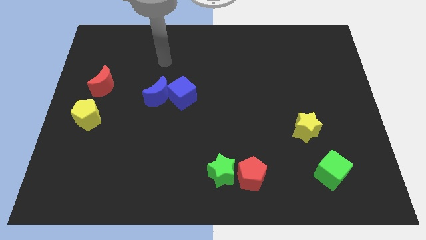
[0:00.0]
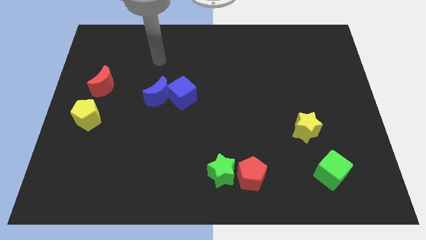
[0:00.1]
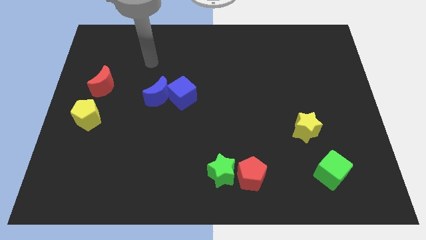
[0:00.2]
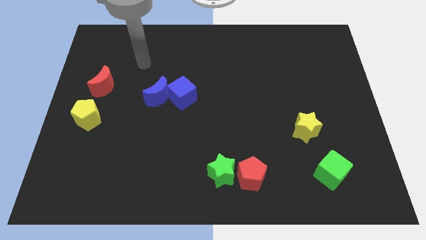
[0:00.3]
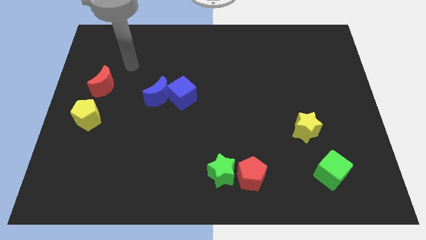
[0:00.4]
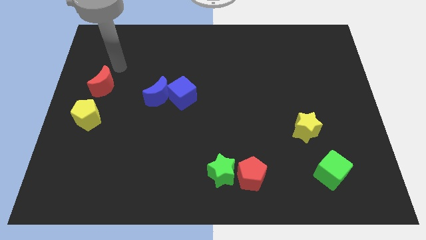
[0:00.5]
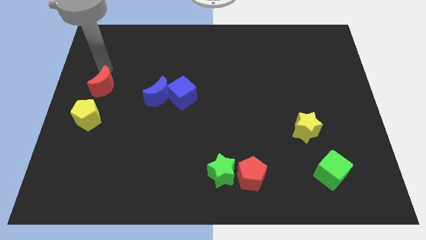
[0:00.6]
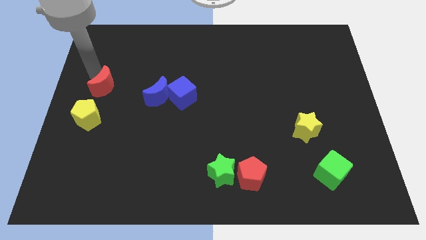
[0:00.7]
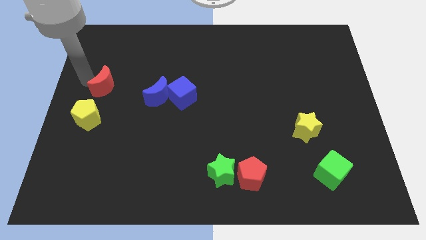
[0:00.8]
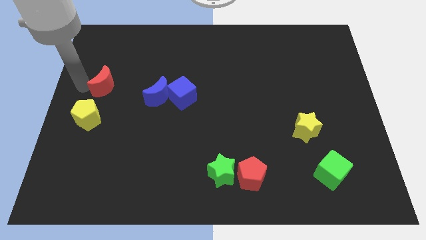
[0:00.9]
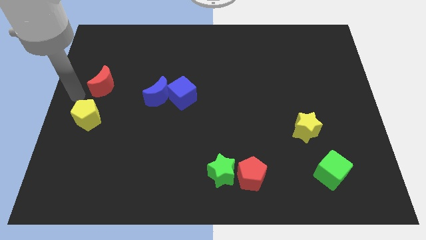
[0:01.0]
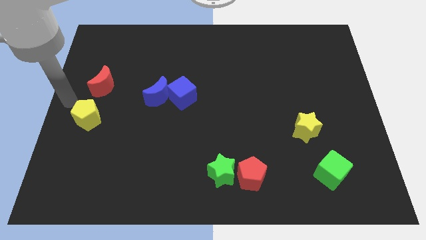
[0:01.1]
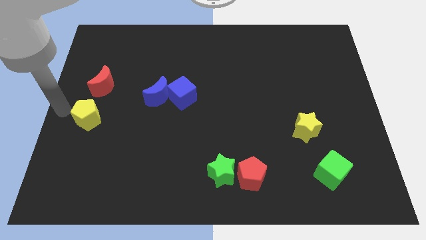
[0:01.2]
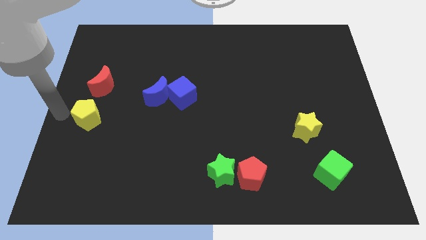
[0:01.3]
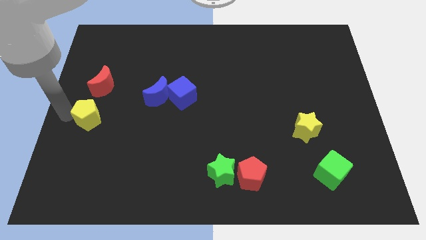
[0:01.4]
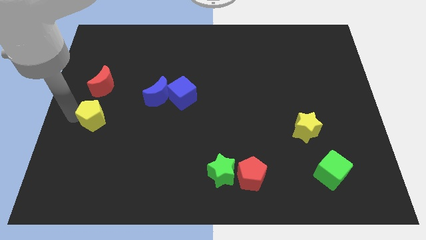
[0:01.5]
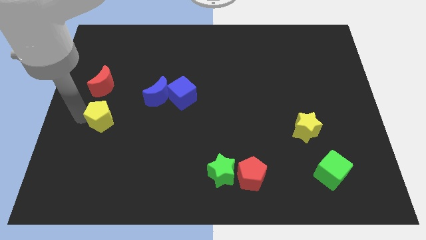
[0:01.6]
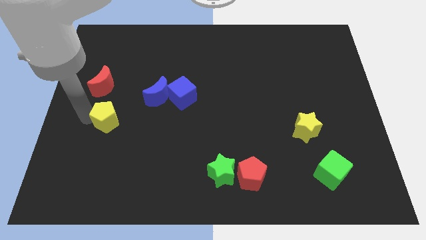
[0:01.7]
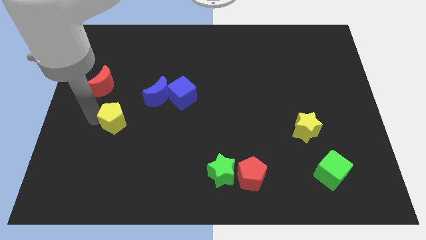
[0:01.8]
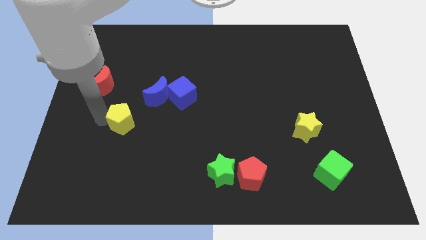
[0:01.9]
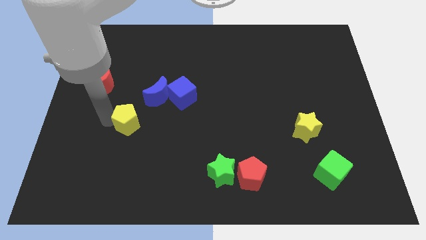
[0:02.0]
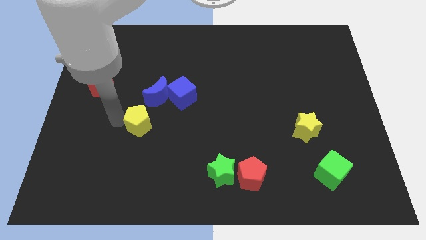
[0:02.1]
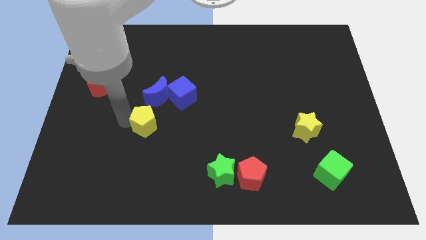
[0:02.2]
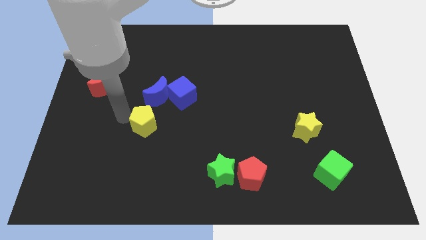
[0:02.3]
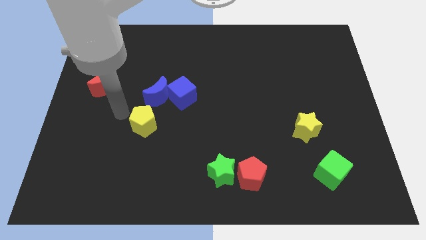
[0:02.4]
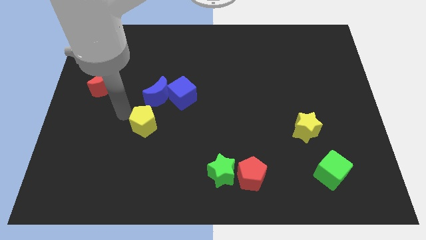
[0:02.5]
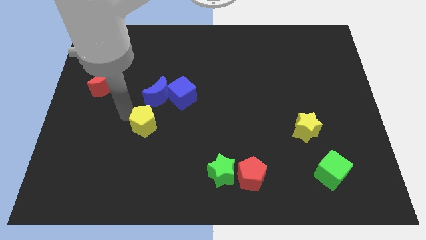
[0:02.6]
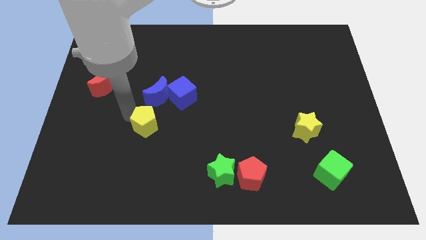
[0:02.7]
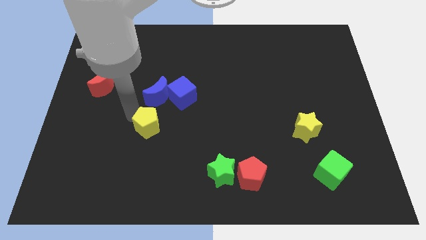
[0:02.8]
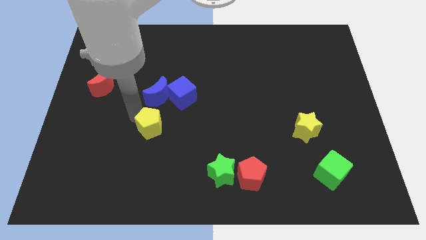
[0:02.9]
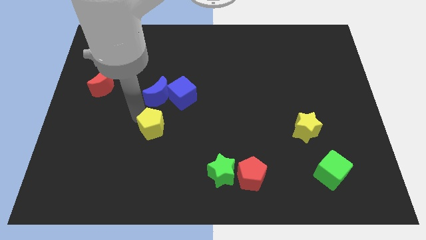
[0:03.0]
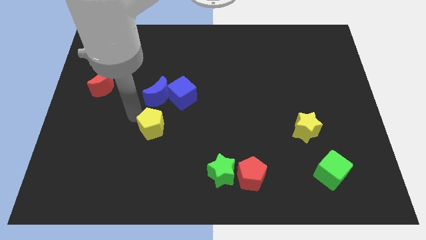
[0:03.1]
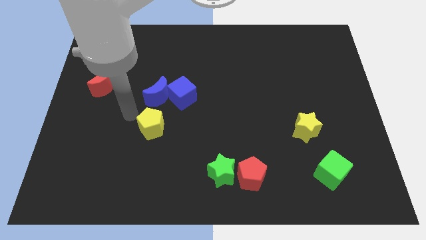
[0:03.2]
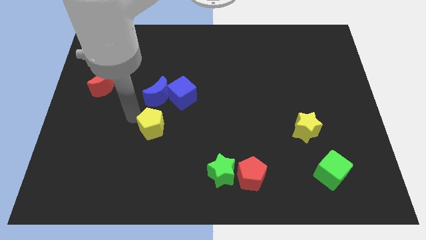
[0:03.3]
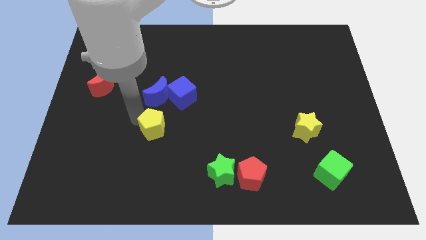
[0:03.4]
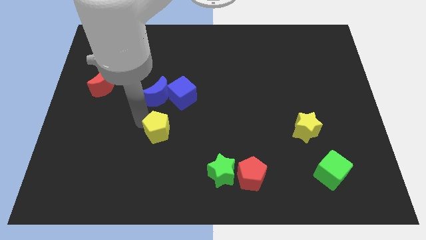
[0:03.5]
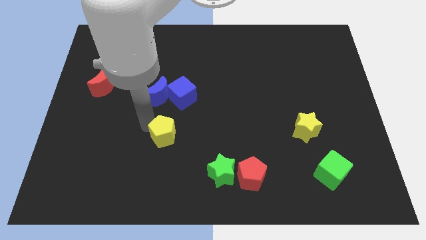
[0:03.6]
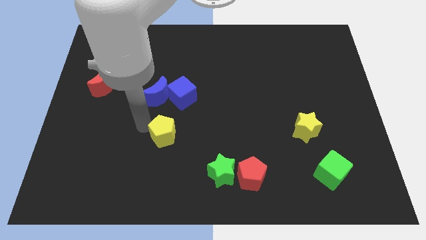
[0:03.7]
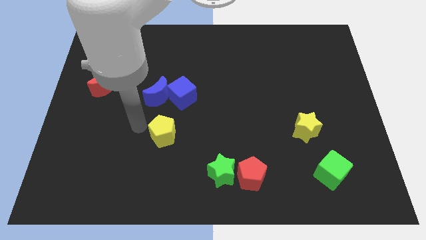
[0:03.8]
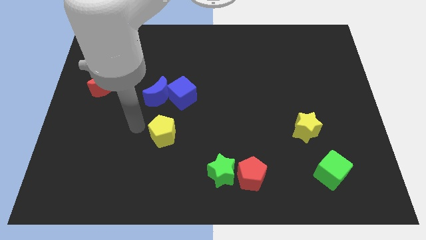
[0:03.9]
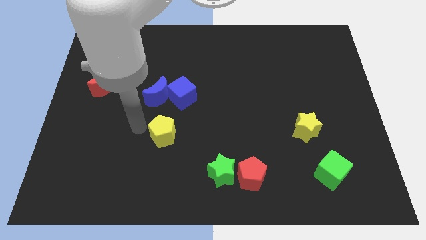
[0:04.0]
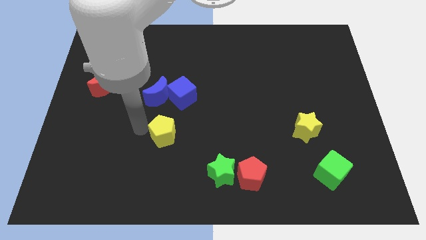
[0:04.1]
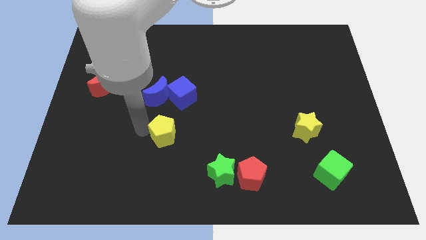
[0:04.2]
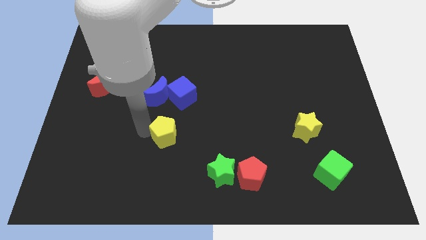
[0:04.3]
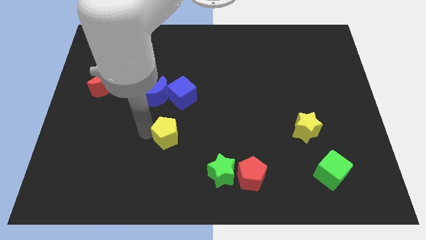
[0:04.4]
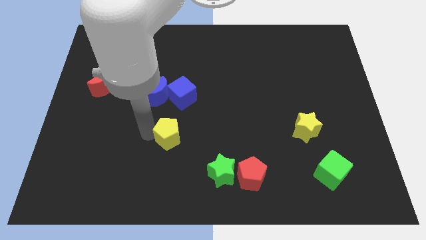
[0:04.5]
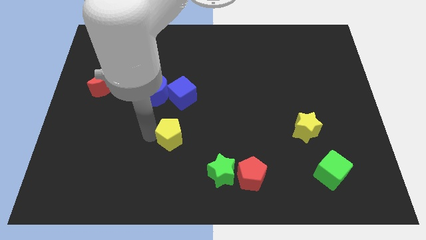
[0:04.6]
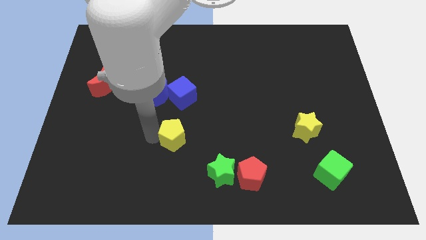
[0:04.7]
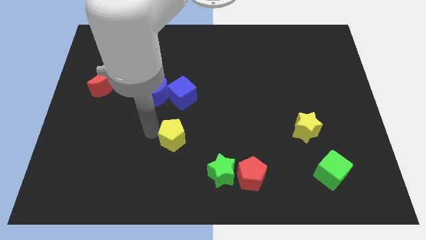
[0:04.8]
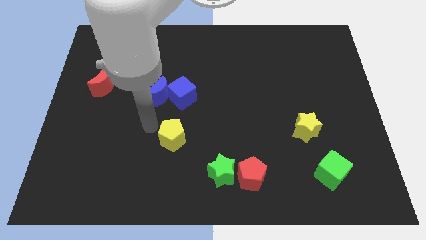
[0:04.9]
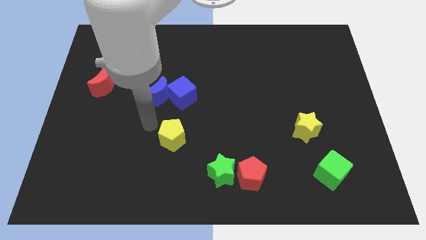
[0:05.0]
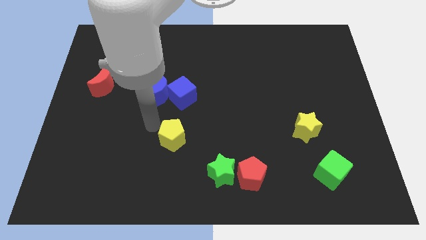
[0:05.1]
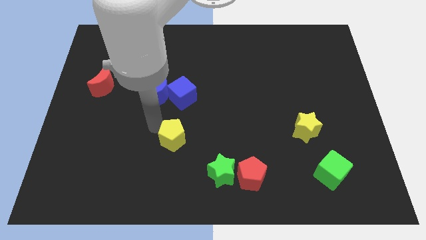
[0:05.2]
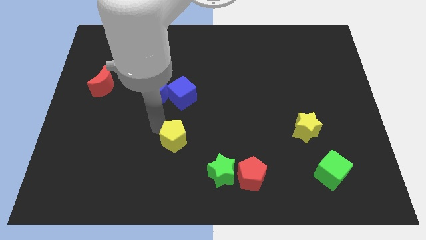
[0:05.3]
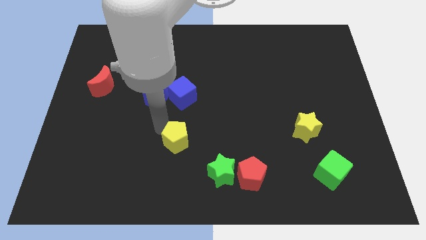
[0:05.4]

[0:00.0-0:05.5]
put the yellow pentagon to the top left side of the green star

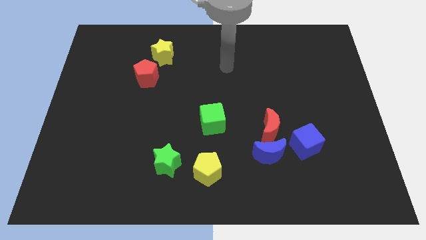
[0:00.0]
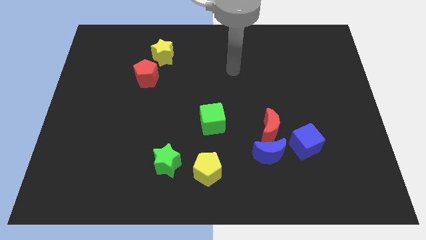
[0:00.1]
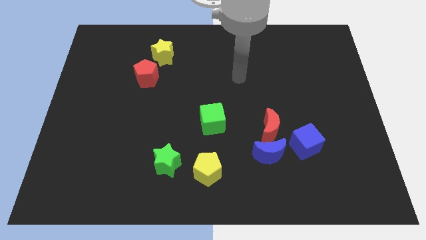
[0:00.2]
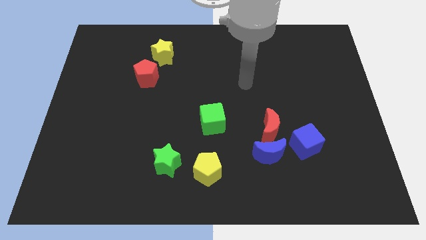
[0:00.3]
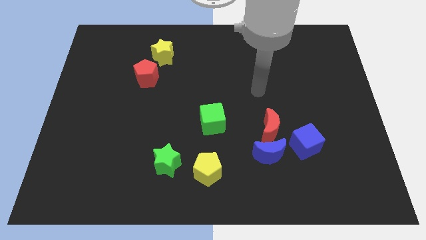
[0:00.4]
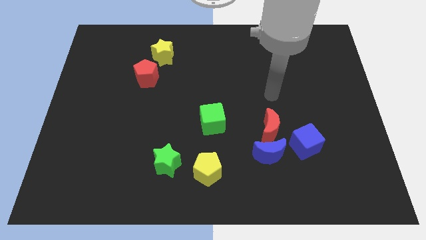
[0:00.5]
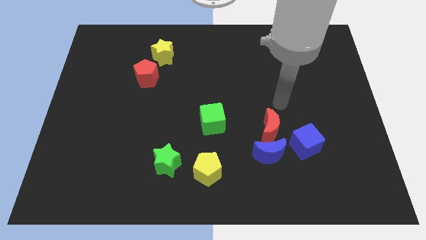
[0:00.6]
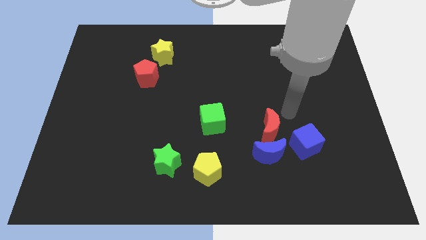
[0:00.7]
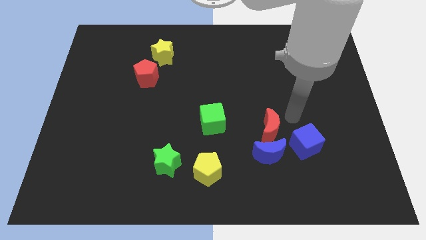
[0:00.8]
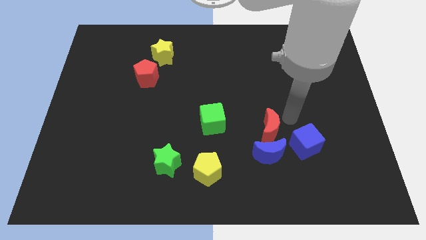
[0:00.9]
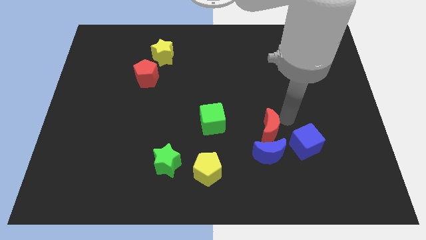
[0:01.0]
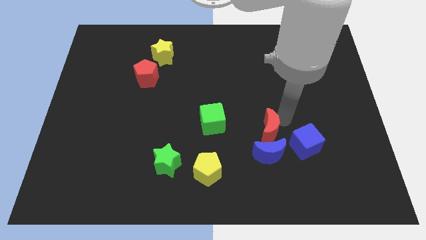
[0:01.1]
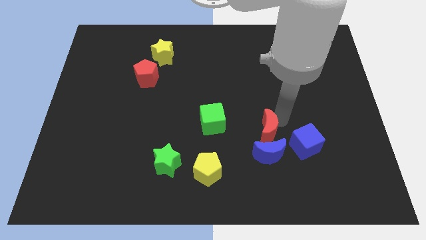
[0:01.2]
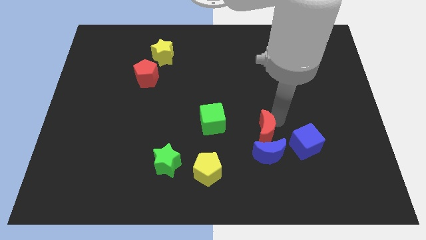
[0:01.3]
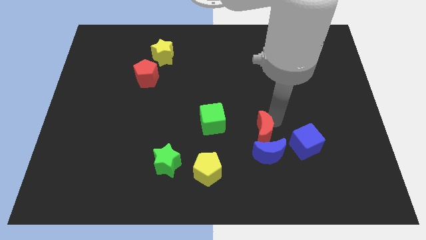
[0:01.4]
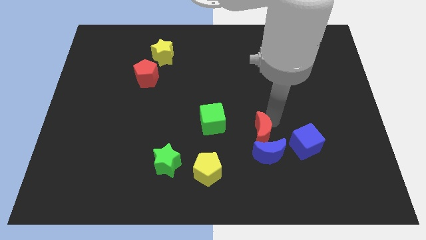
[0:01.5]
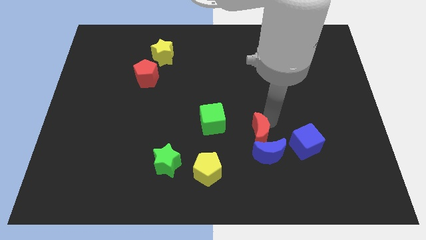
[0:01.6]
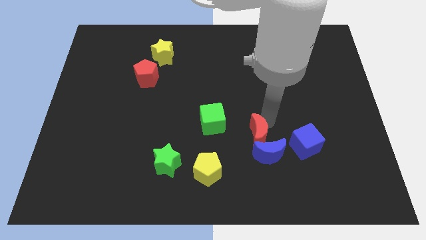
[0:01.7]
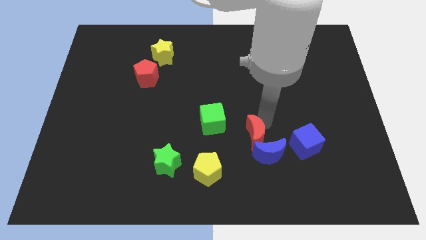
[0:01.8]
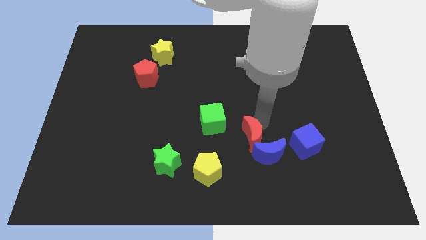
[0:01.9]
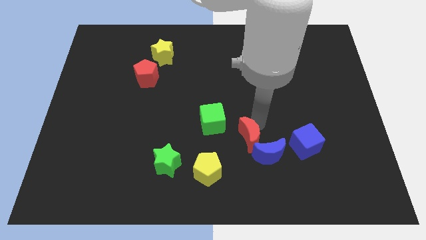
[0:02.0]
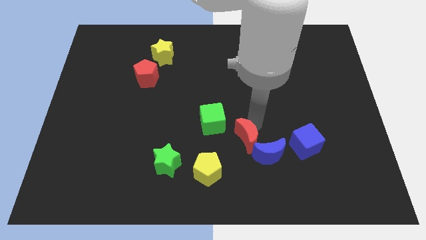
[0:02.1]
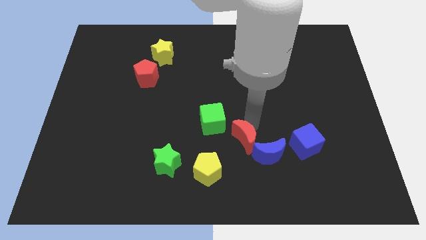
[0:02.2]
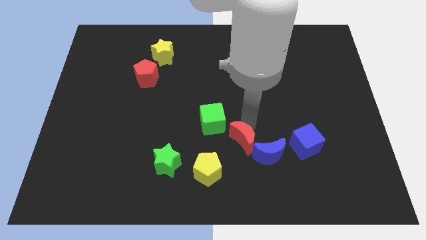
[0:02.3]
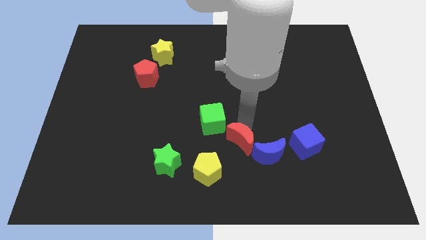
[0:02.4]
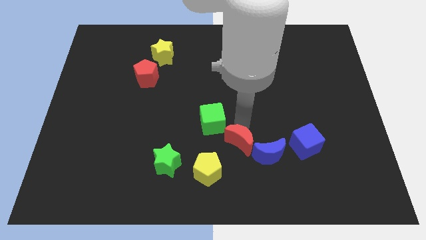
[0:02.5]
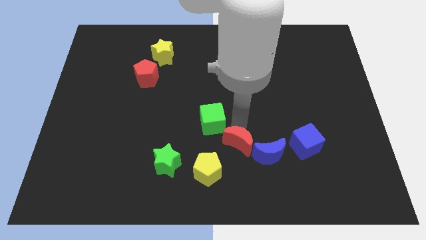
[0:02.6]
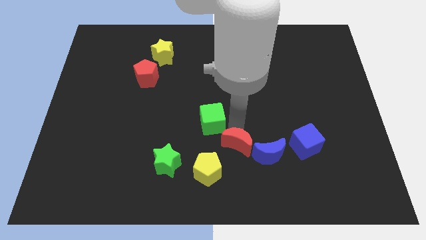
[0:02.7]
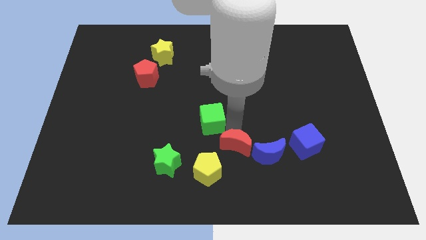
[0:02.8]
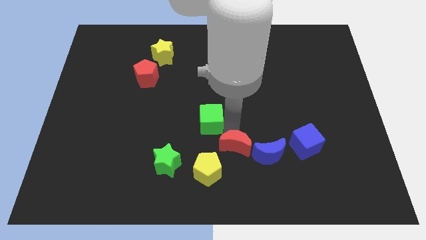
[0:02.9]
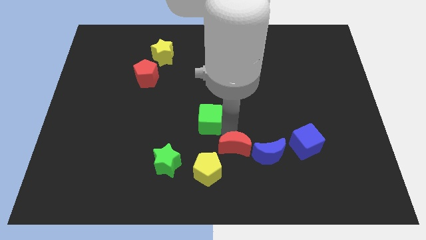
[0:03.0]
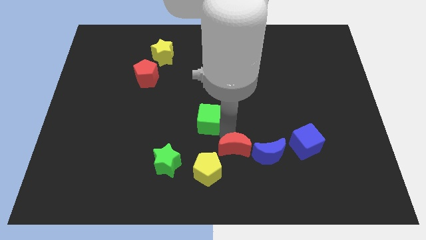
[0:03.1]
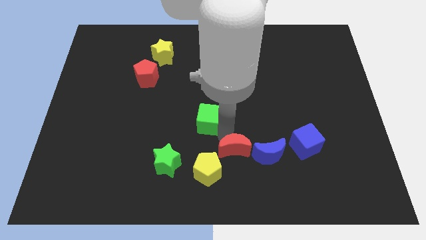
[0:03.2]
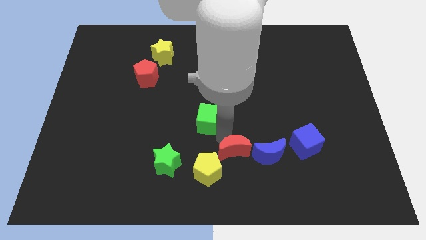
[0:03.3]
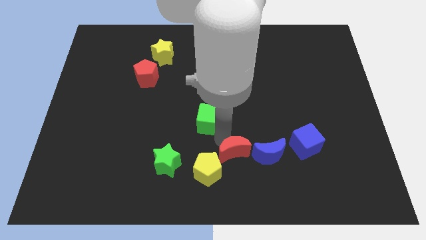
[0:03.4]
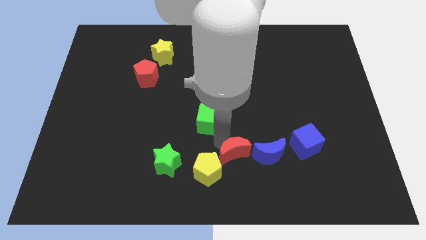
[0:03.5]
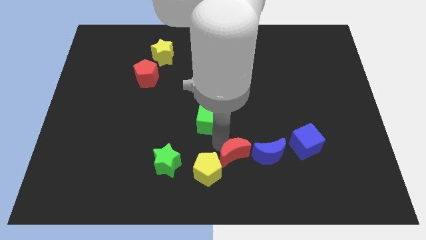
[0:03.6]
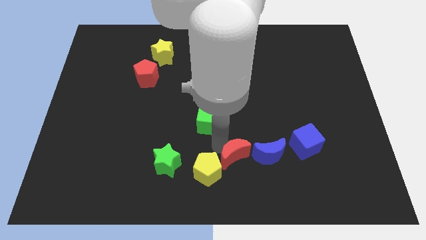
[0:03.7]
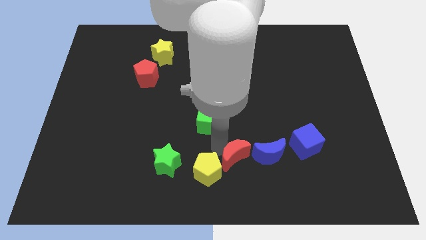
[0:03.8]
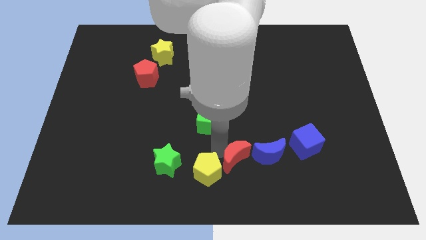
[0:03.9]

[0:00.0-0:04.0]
slide the red moon diagonally down and to the left of the blue moon
